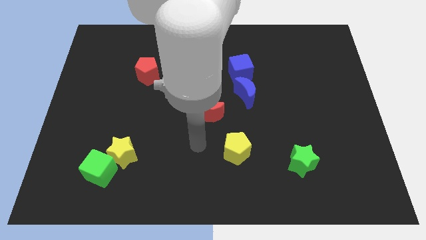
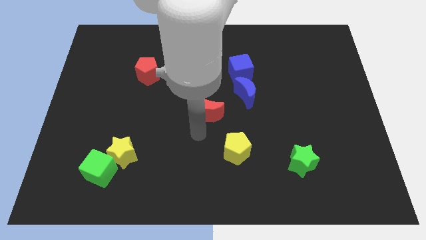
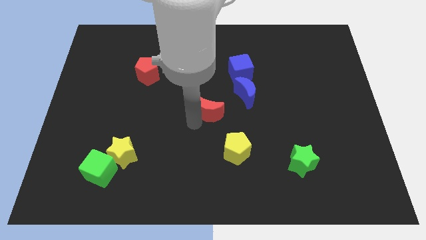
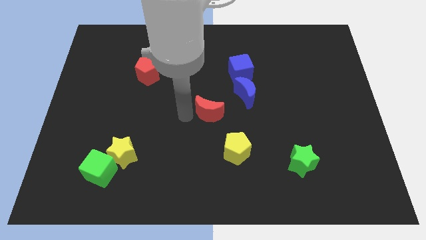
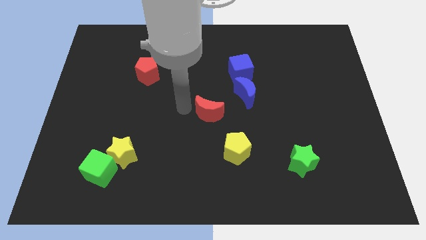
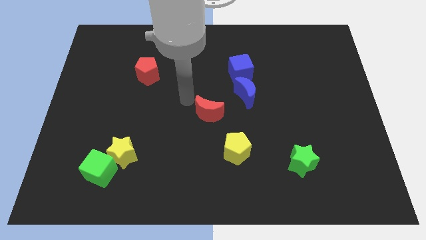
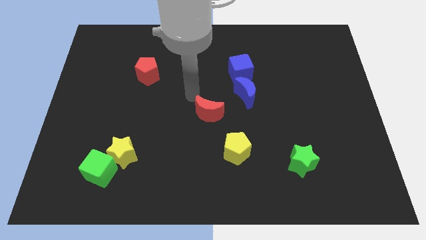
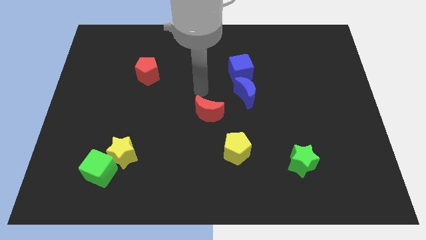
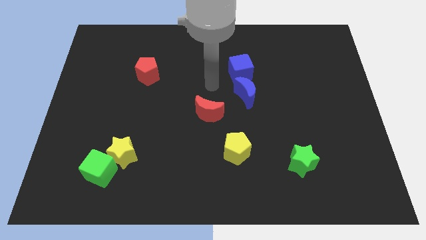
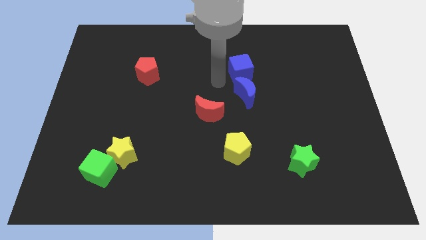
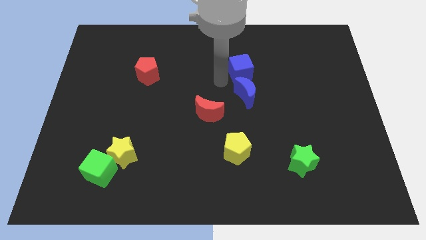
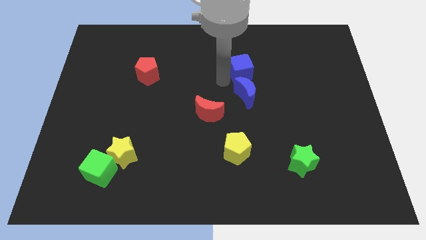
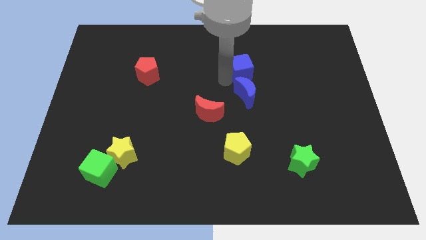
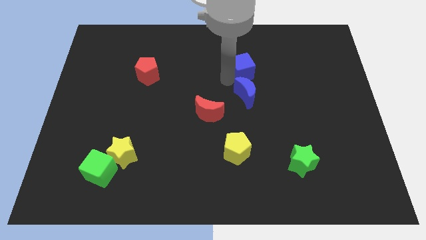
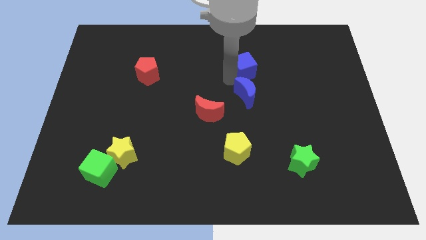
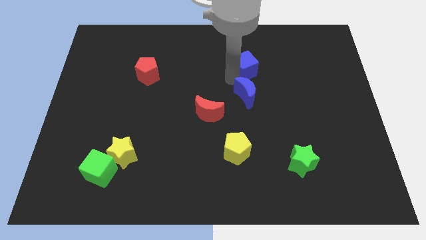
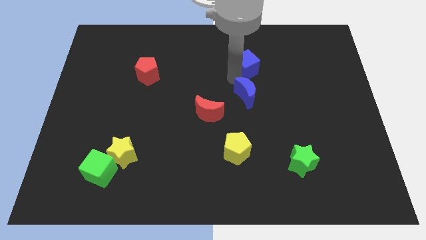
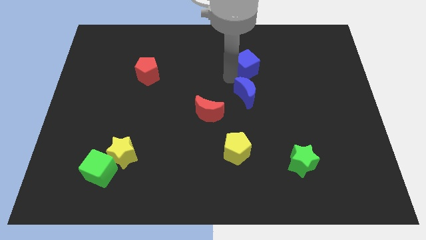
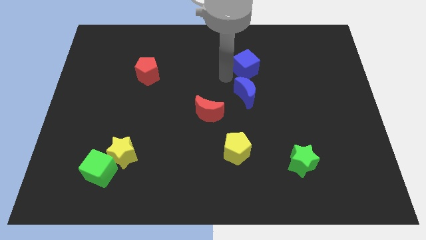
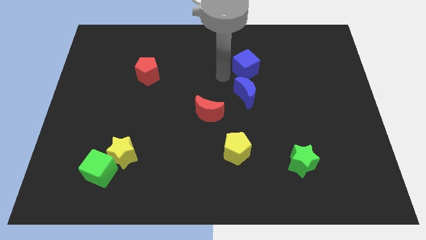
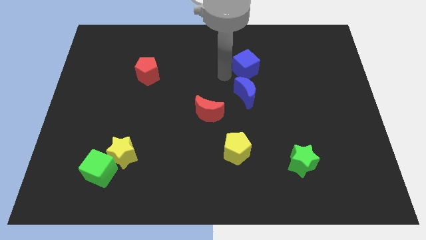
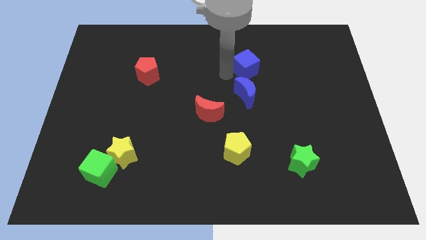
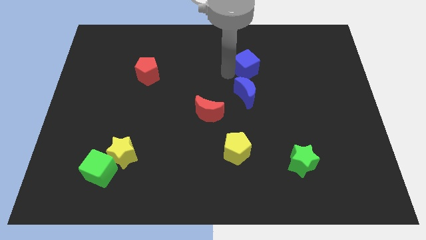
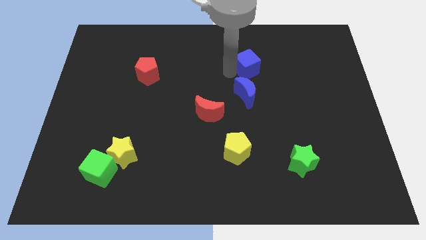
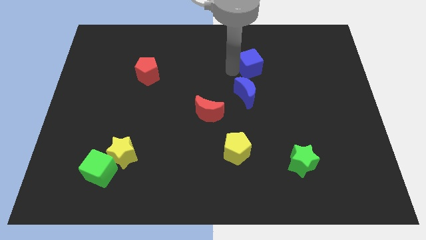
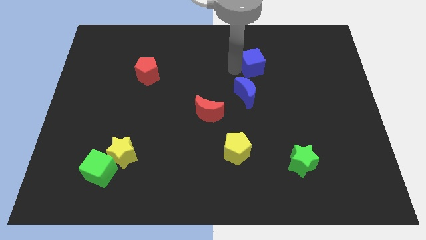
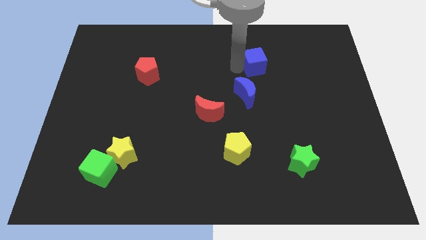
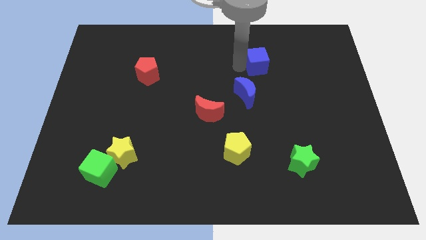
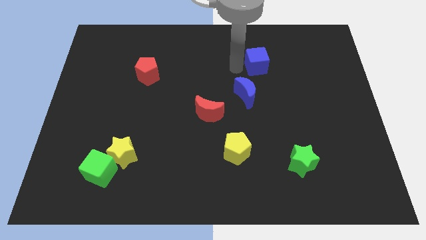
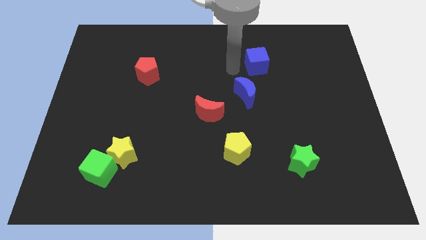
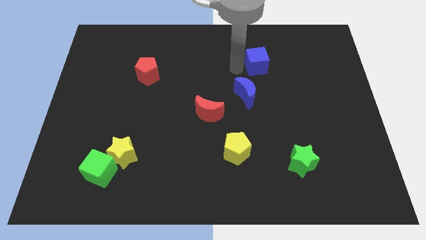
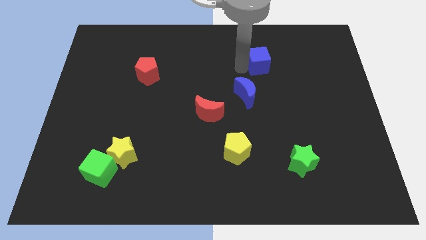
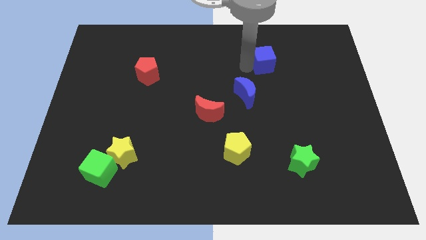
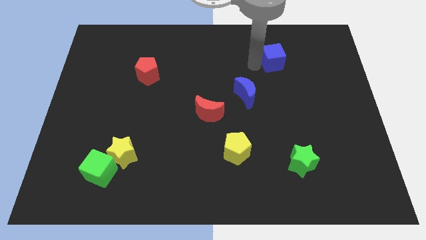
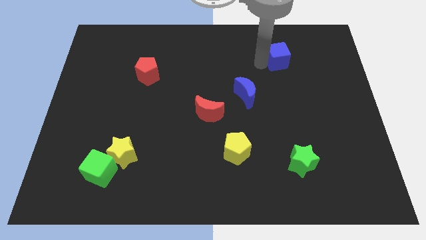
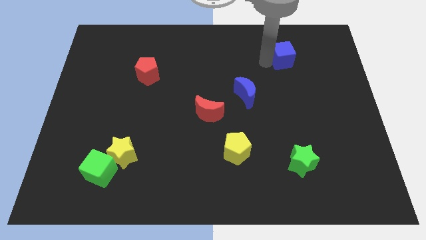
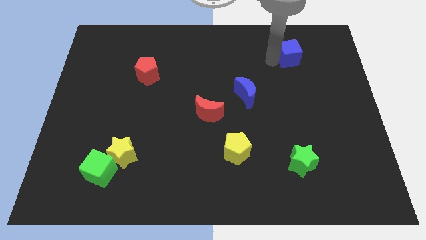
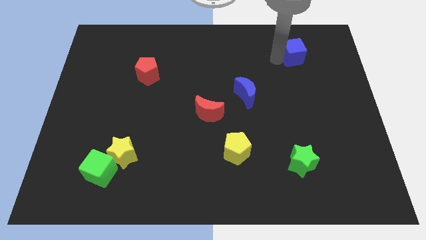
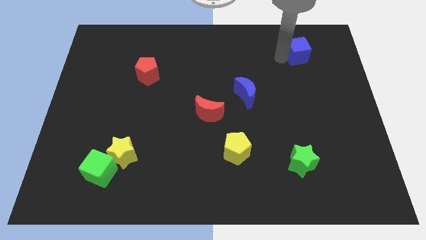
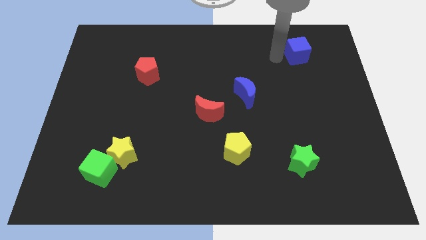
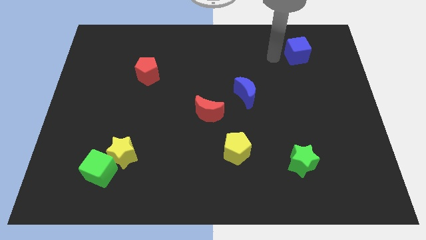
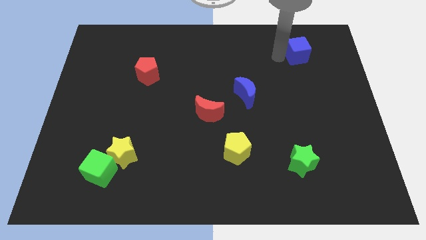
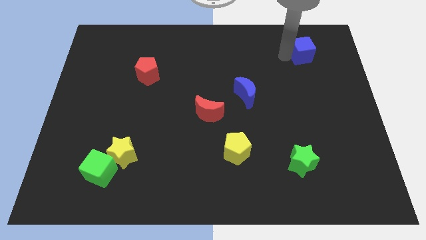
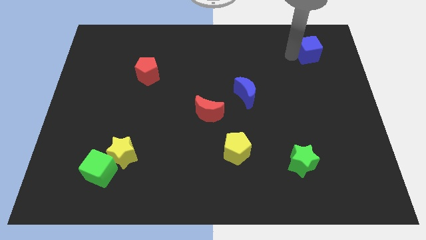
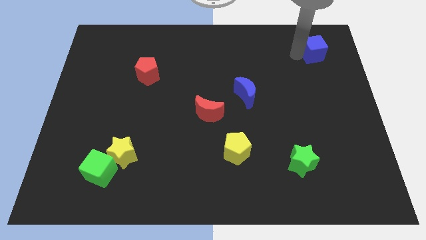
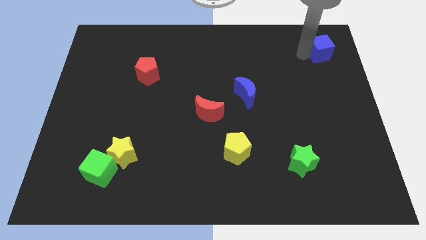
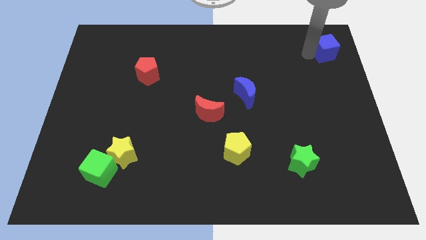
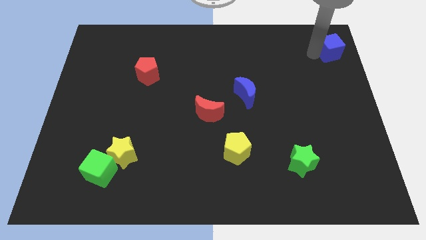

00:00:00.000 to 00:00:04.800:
push the blue cube to the top right of the board

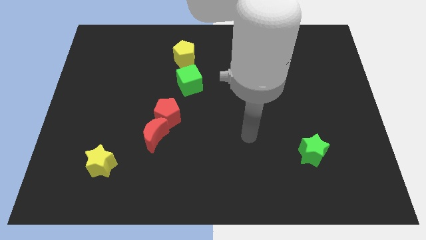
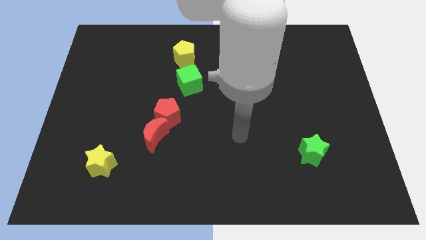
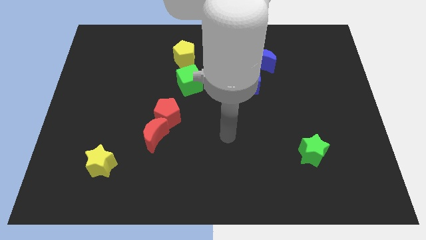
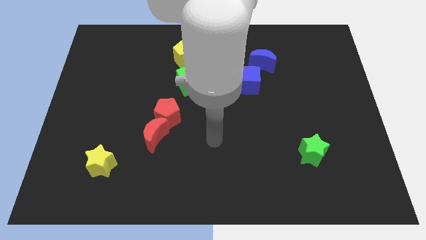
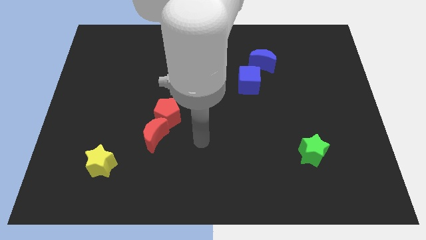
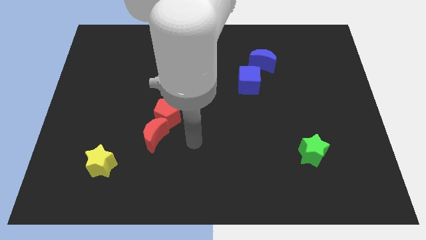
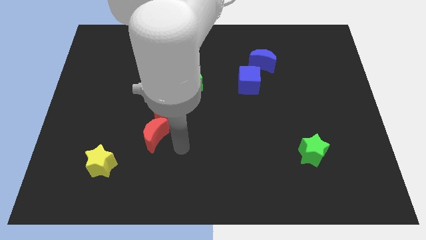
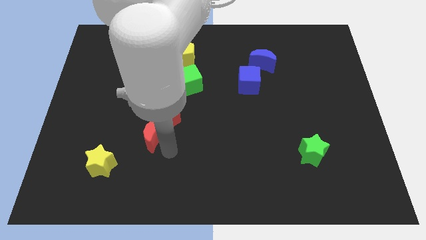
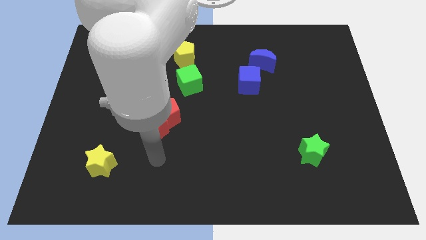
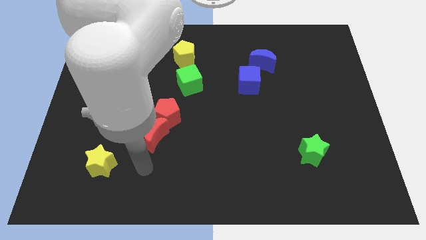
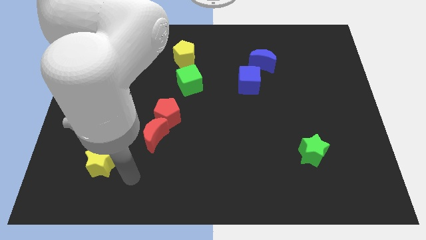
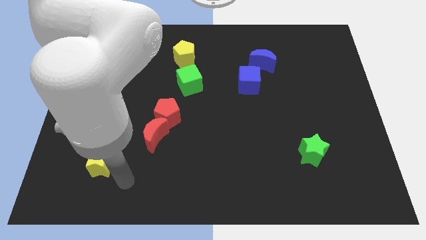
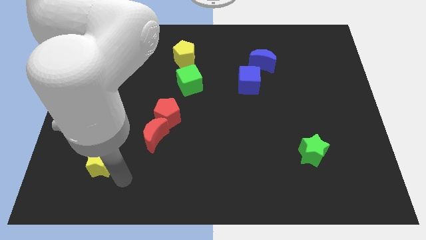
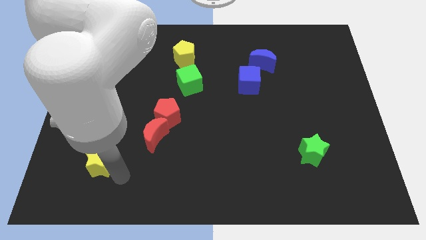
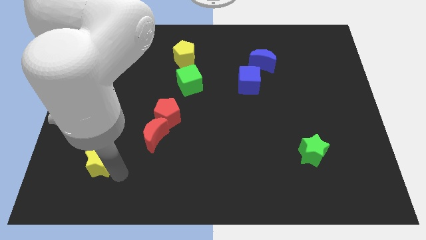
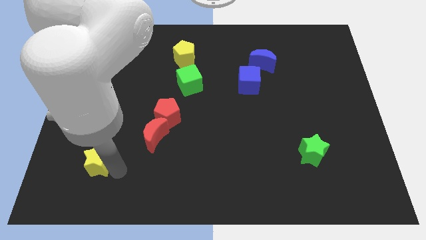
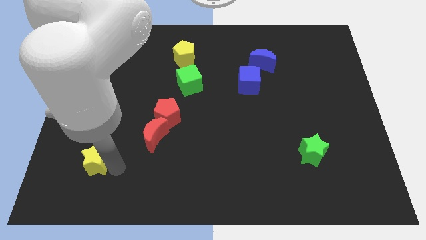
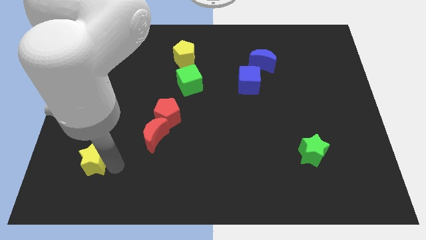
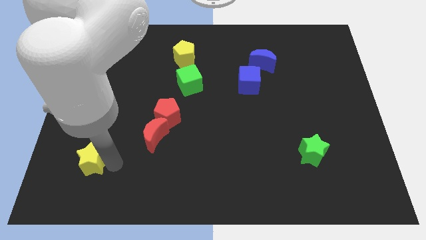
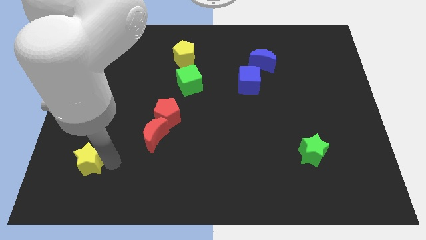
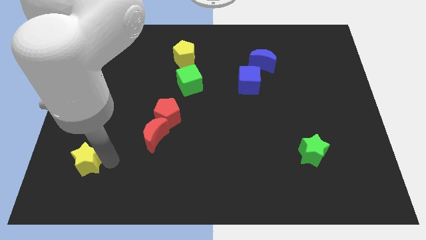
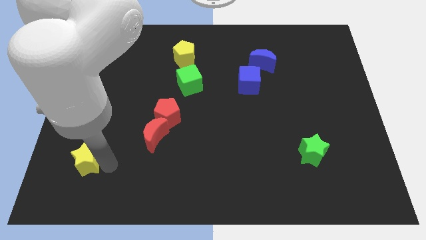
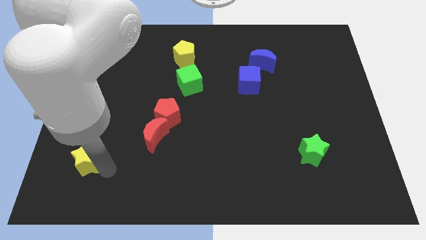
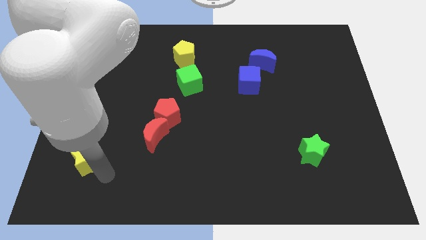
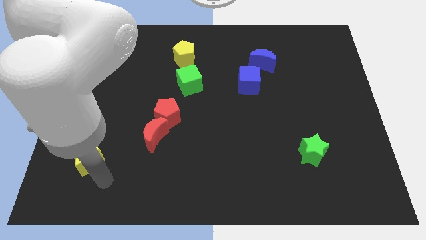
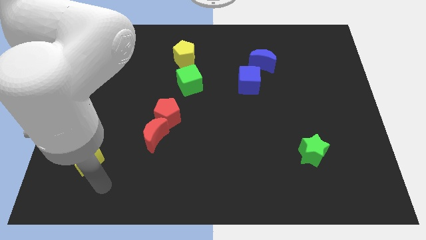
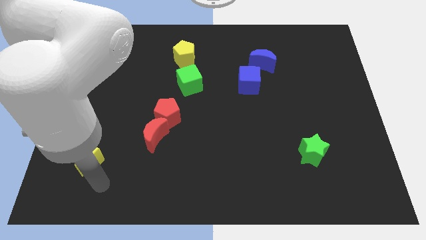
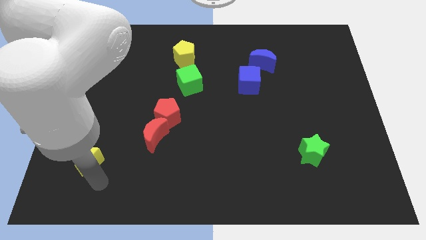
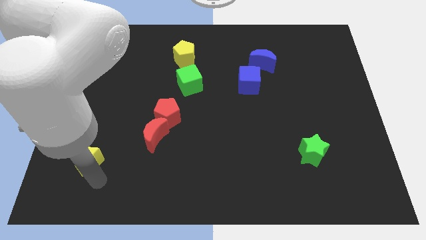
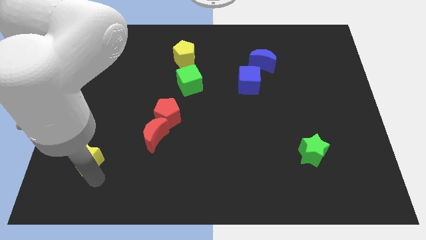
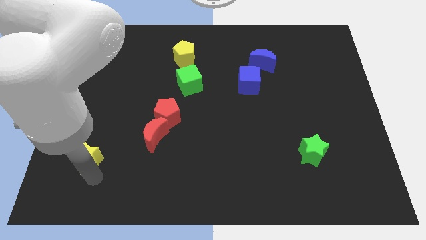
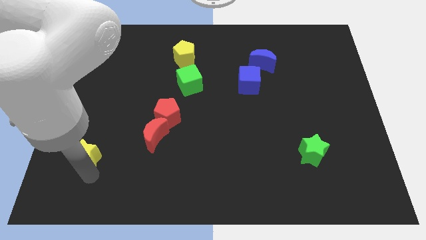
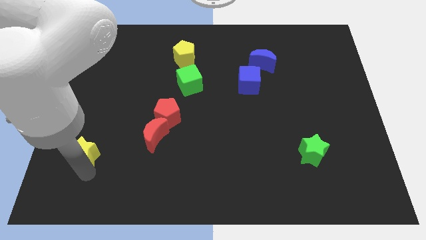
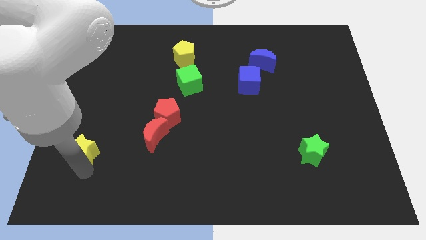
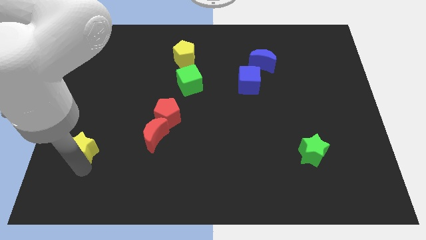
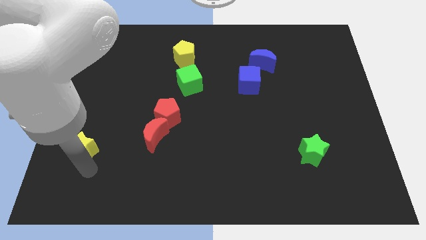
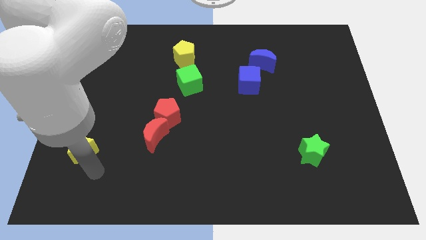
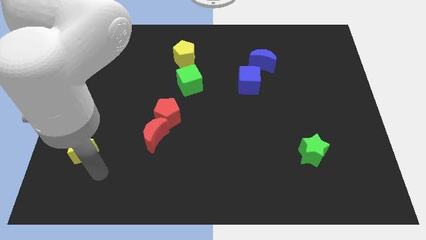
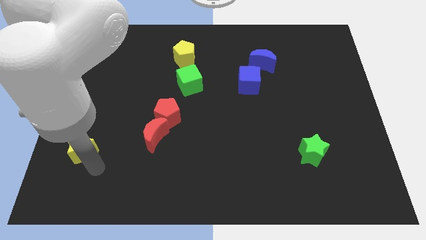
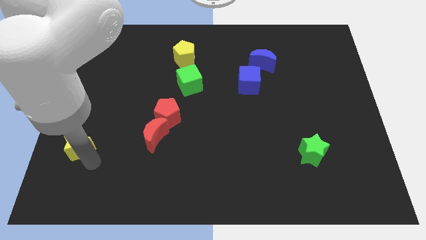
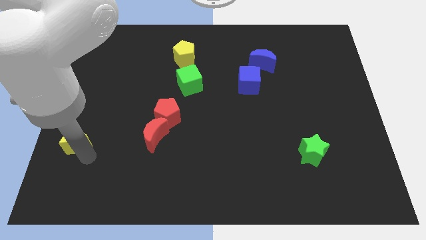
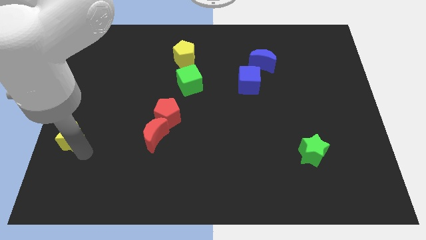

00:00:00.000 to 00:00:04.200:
put the yellow star to the left side
